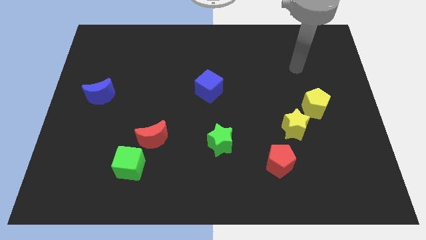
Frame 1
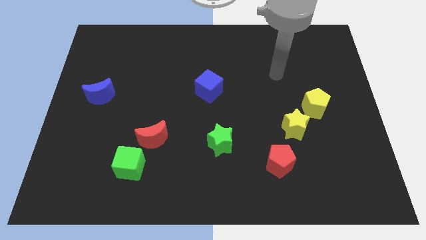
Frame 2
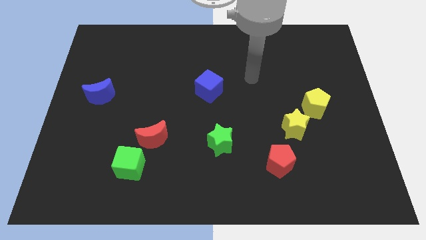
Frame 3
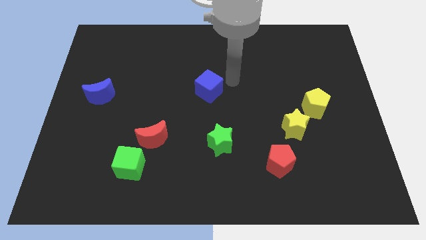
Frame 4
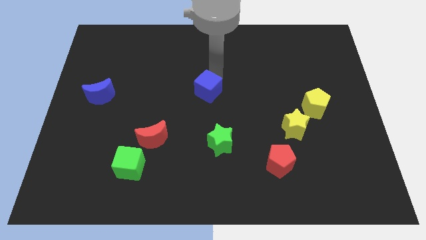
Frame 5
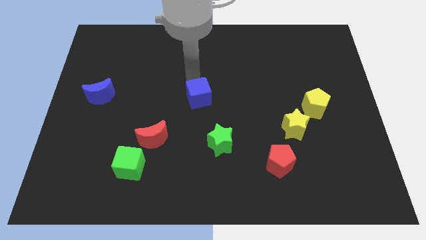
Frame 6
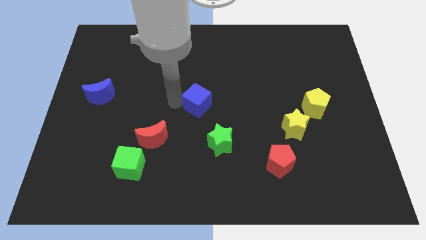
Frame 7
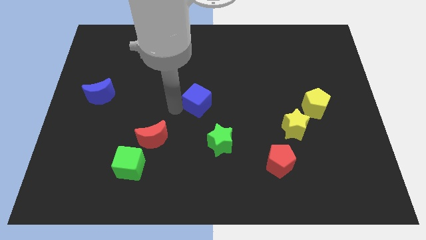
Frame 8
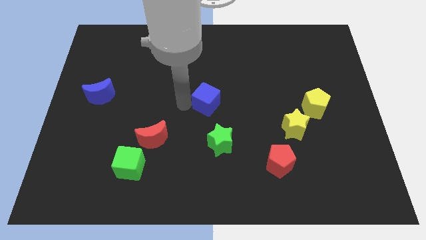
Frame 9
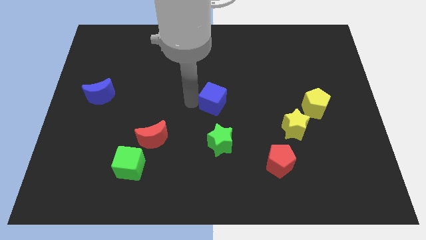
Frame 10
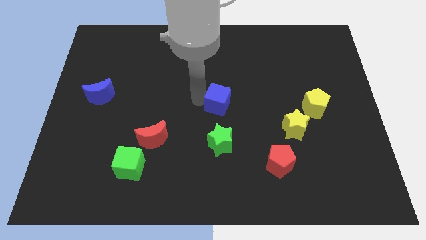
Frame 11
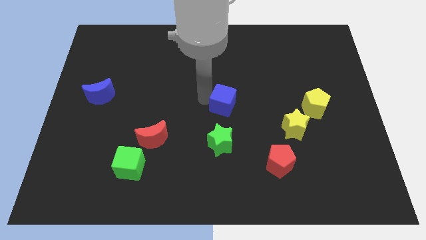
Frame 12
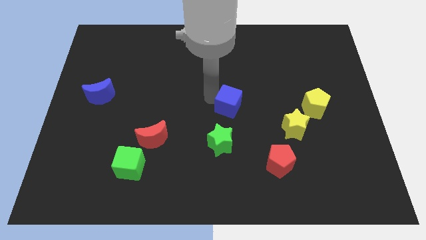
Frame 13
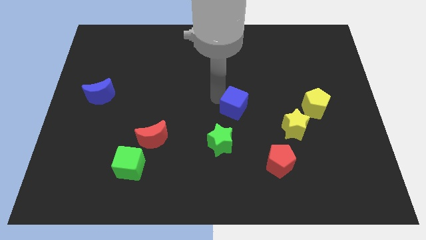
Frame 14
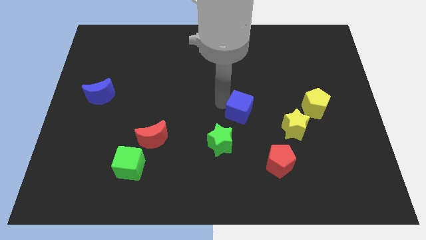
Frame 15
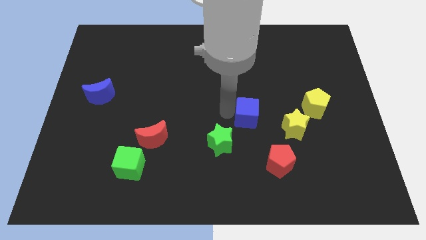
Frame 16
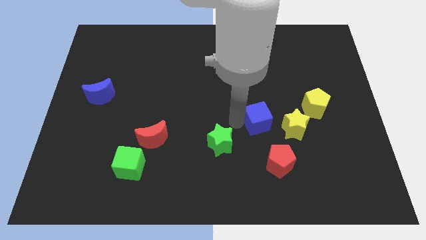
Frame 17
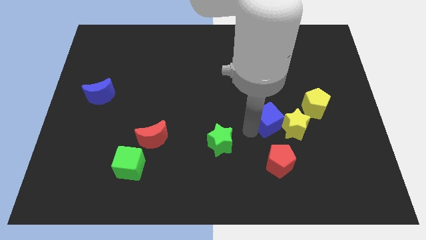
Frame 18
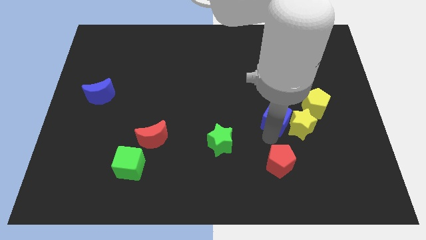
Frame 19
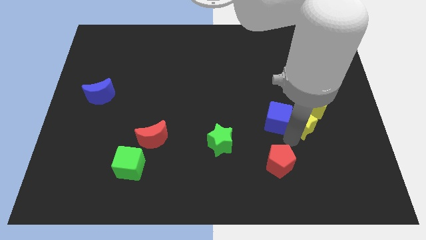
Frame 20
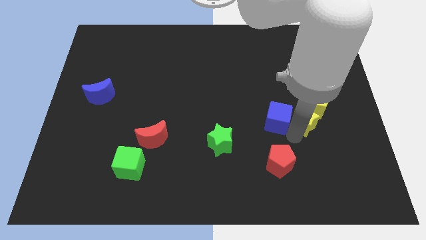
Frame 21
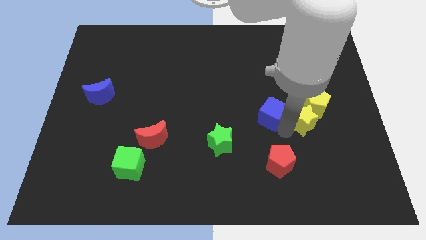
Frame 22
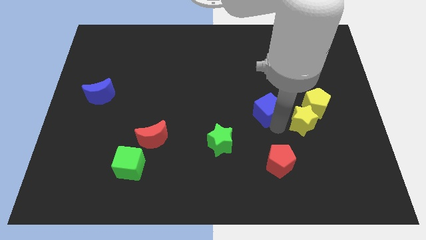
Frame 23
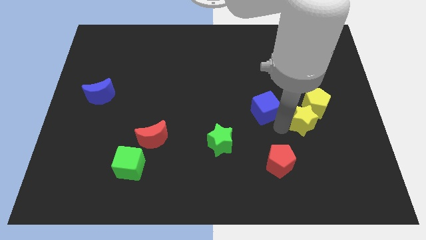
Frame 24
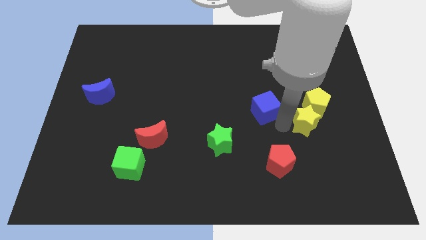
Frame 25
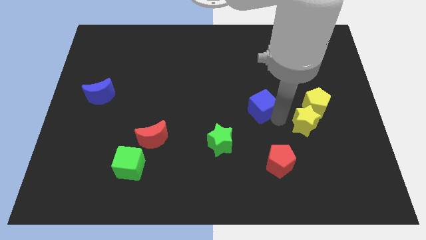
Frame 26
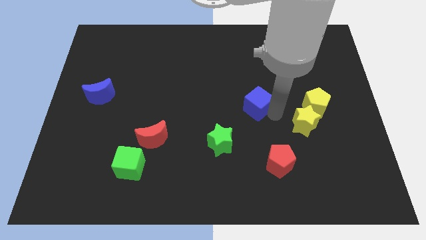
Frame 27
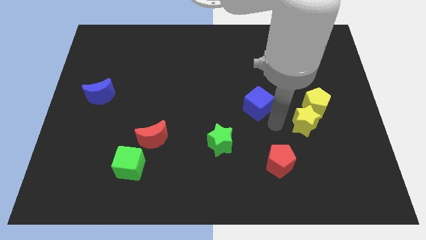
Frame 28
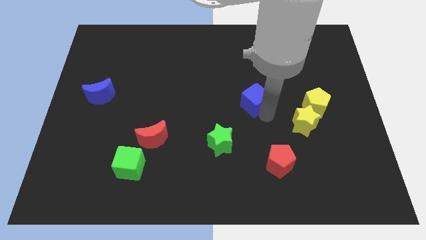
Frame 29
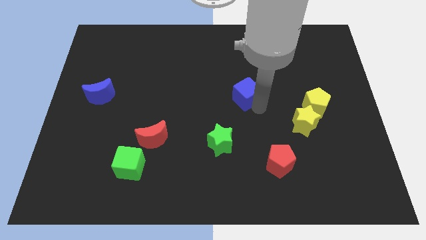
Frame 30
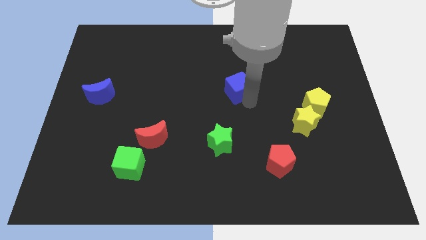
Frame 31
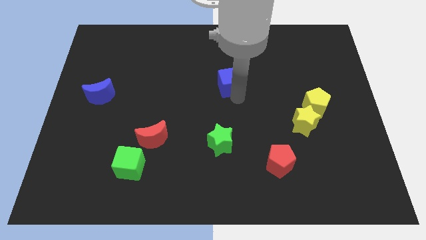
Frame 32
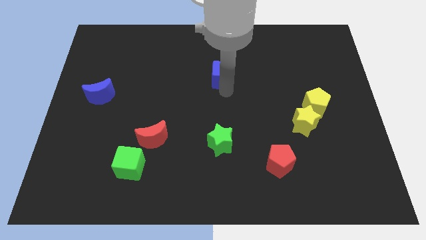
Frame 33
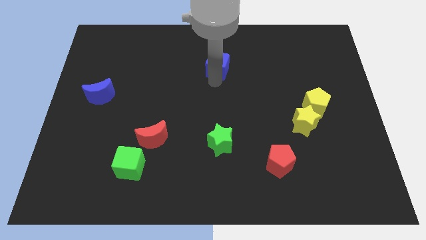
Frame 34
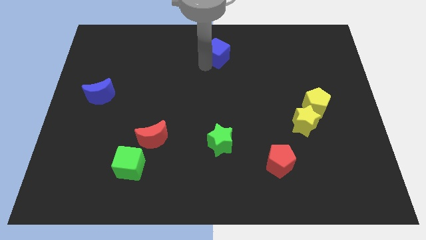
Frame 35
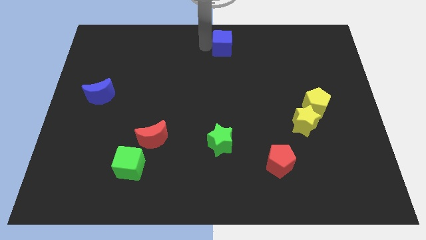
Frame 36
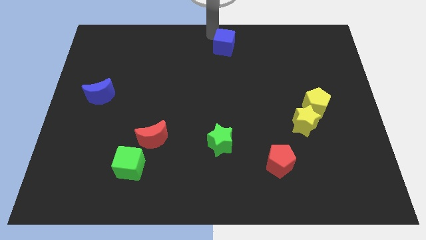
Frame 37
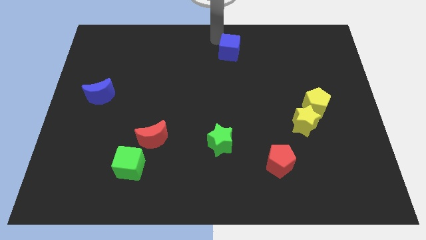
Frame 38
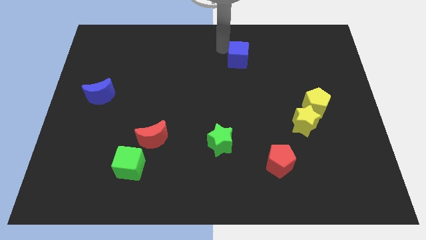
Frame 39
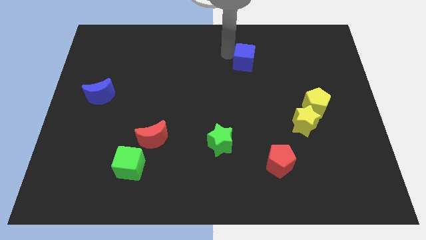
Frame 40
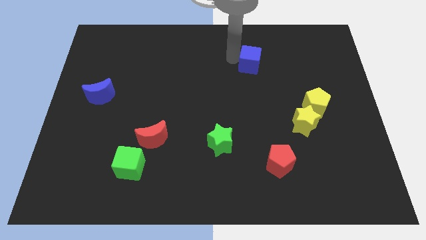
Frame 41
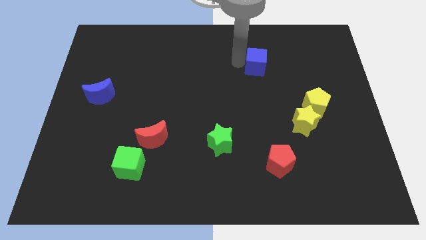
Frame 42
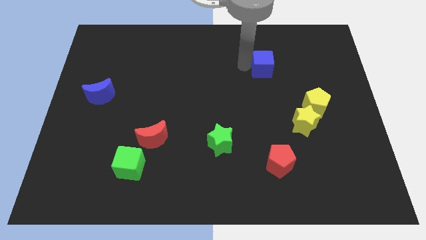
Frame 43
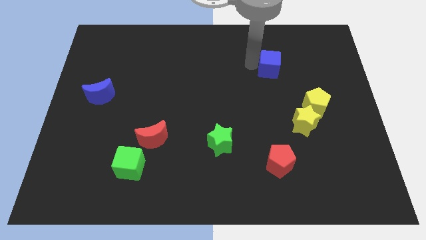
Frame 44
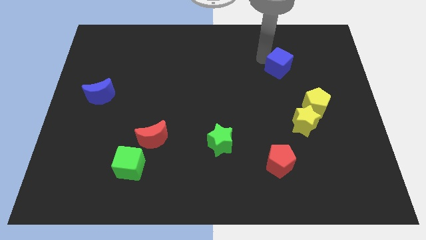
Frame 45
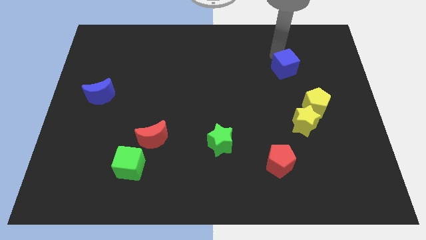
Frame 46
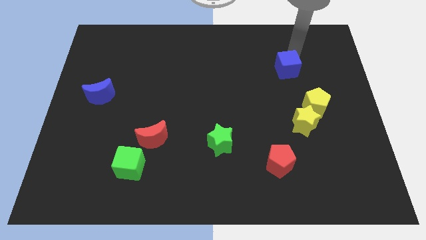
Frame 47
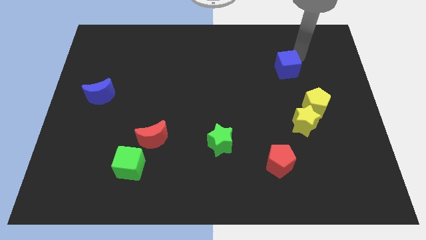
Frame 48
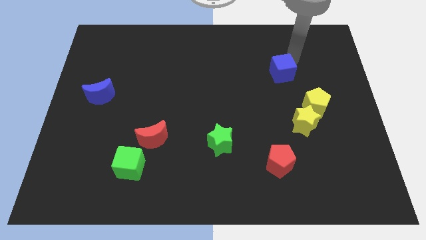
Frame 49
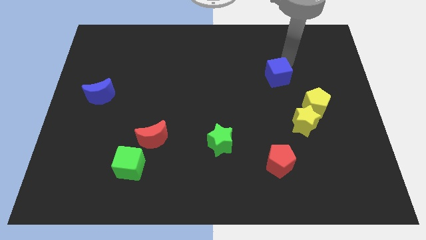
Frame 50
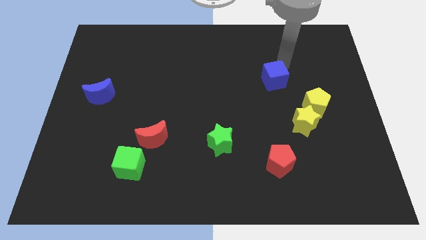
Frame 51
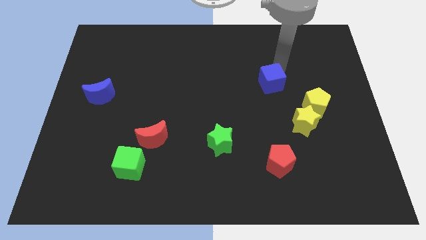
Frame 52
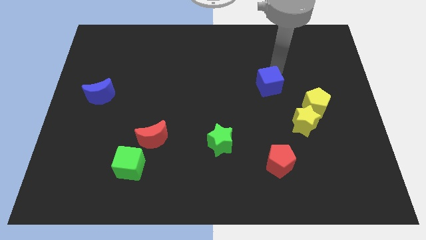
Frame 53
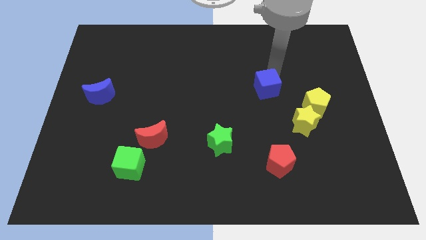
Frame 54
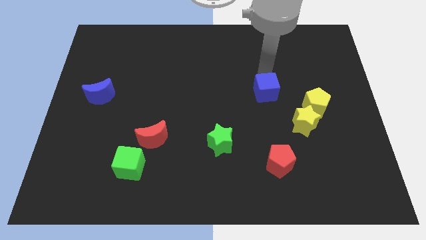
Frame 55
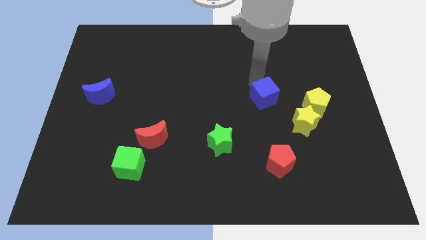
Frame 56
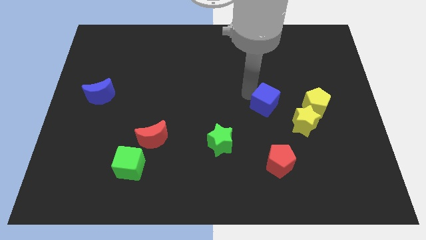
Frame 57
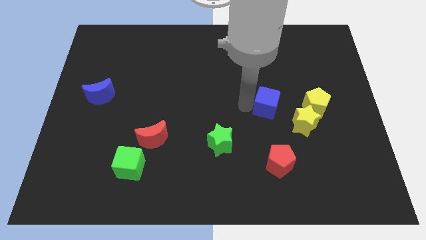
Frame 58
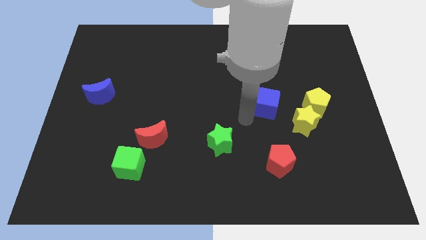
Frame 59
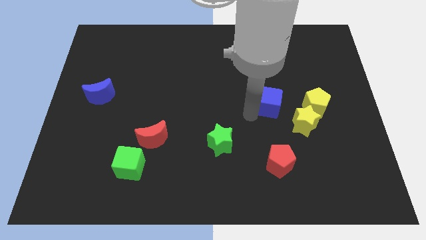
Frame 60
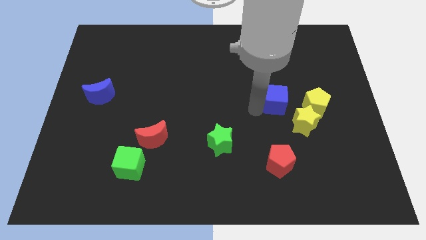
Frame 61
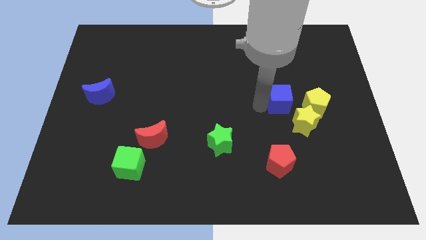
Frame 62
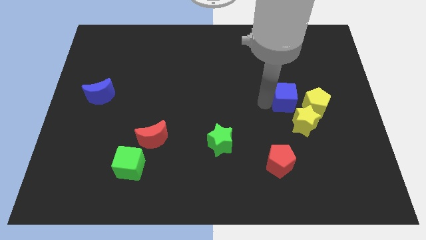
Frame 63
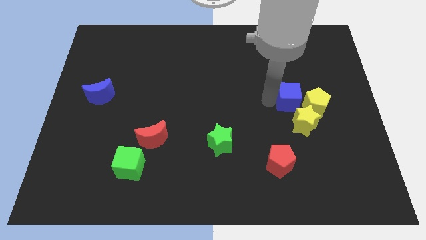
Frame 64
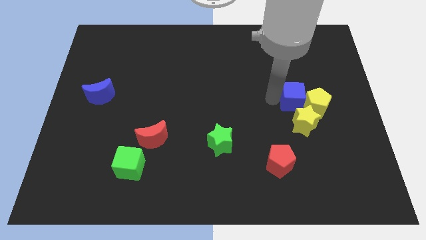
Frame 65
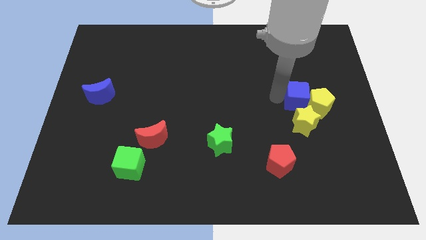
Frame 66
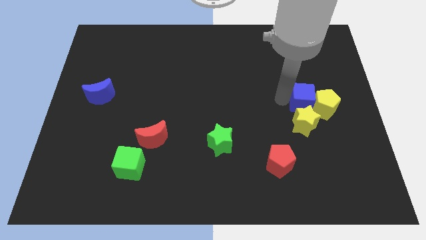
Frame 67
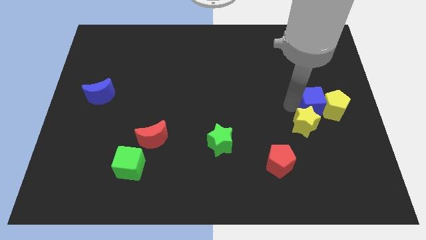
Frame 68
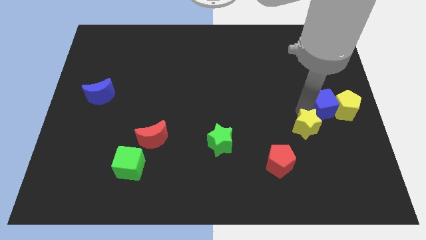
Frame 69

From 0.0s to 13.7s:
slide the blue cube to the right side

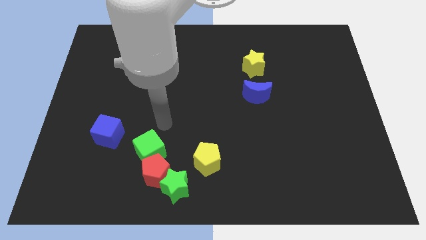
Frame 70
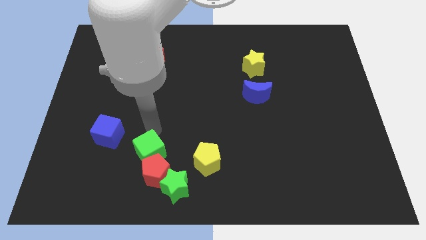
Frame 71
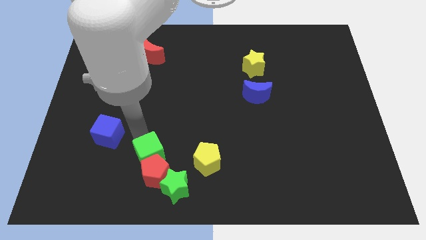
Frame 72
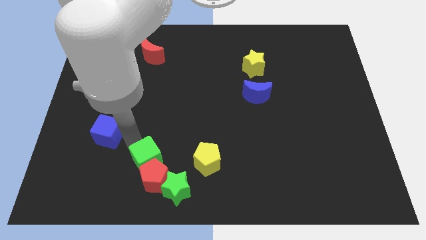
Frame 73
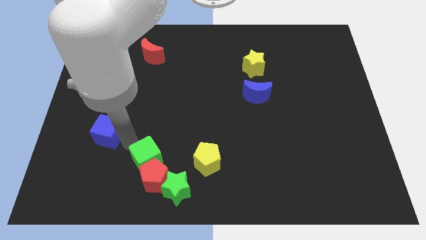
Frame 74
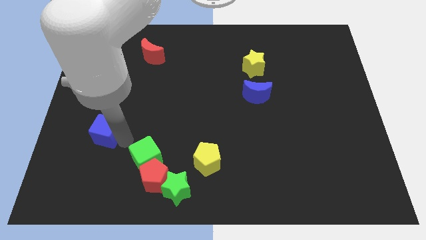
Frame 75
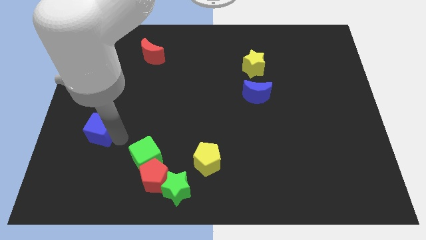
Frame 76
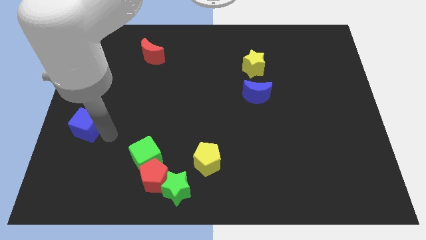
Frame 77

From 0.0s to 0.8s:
move the blue cube to the left side
